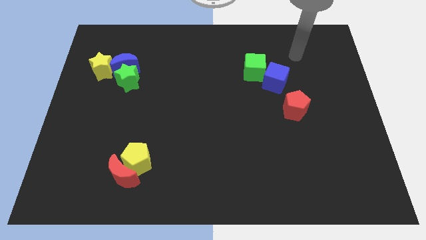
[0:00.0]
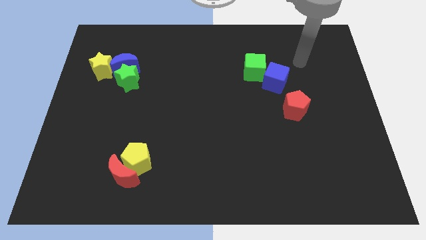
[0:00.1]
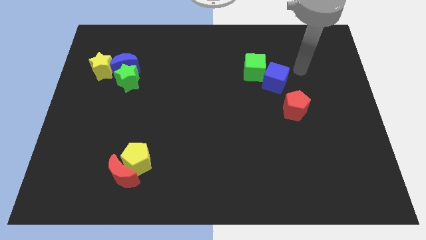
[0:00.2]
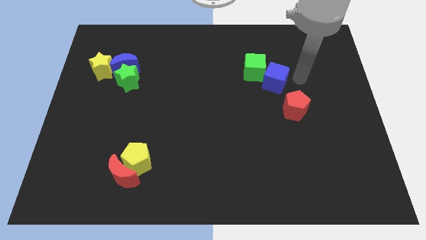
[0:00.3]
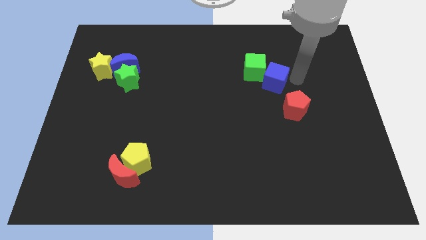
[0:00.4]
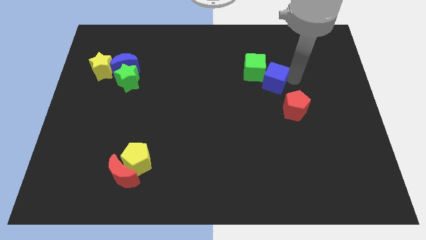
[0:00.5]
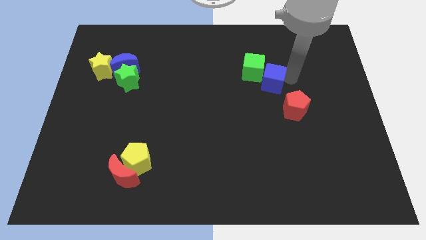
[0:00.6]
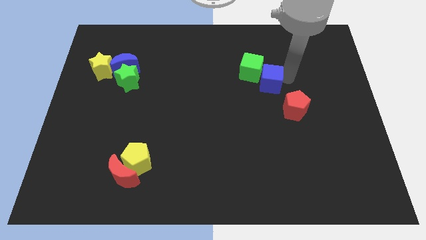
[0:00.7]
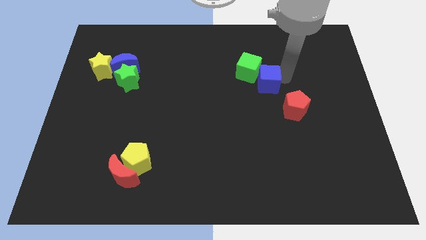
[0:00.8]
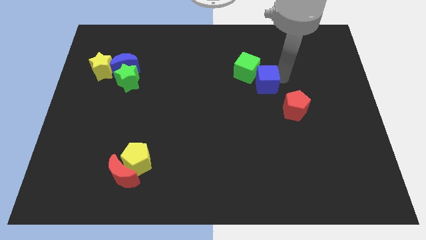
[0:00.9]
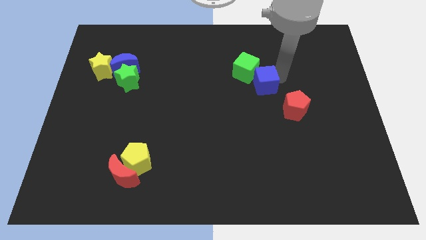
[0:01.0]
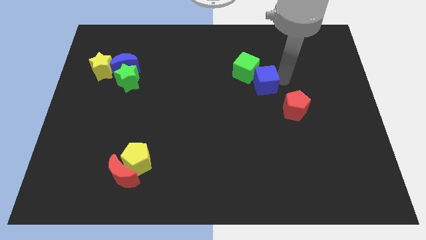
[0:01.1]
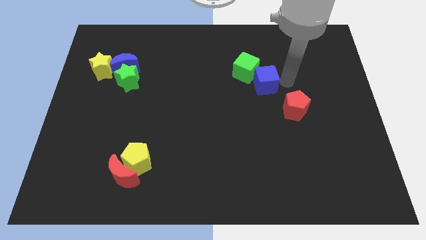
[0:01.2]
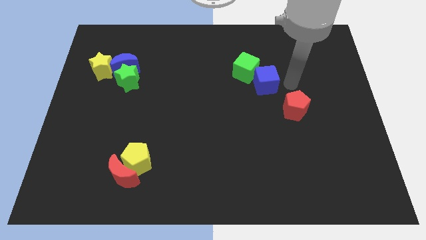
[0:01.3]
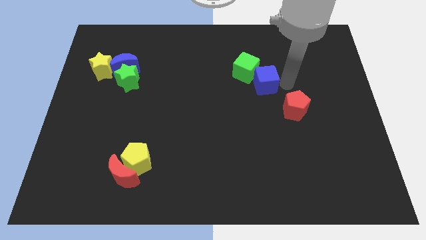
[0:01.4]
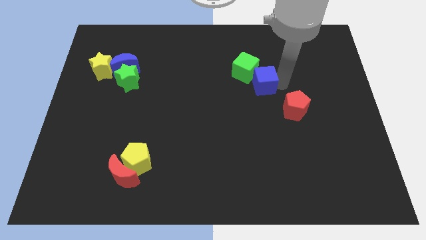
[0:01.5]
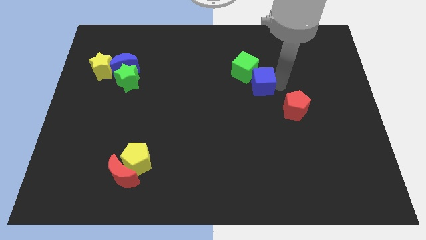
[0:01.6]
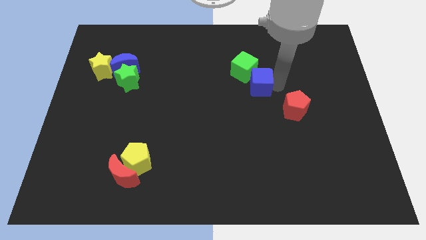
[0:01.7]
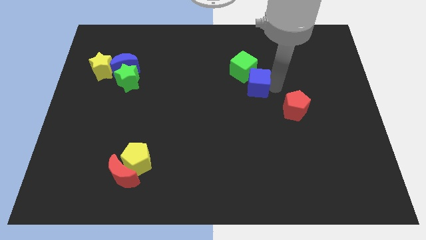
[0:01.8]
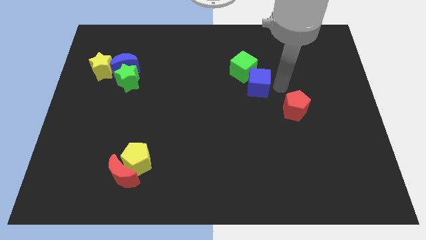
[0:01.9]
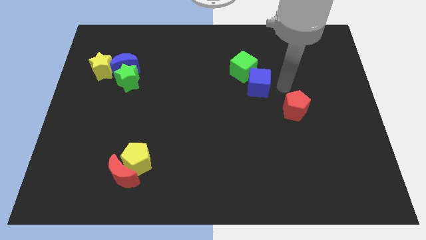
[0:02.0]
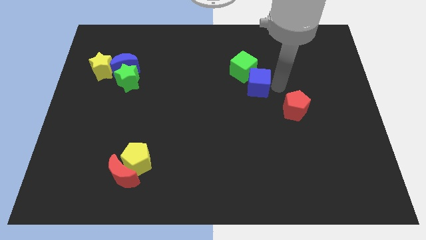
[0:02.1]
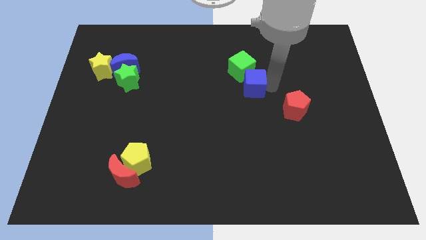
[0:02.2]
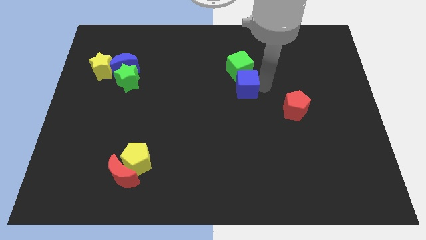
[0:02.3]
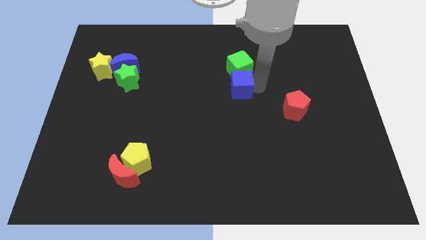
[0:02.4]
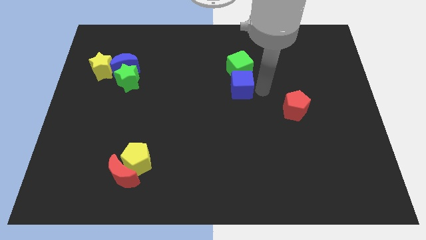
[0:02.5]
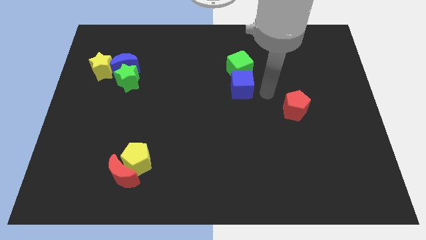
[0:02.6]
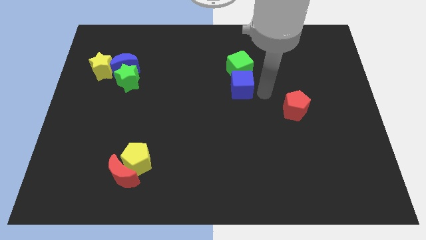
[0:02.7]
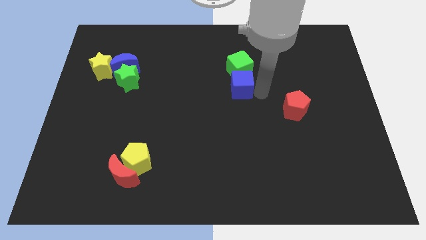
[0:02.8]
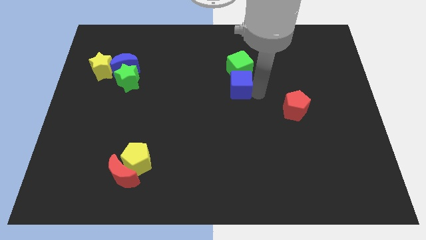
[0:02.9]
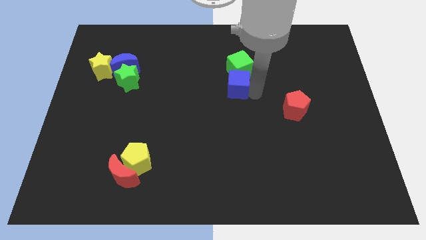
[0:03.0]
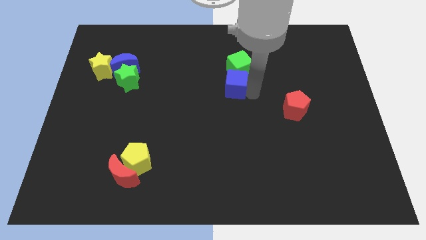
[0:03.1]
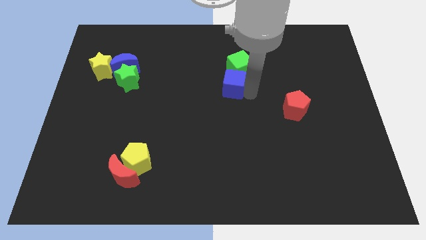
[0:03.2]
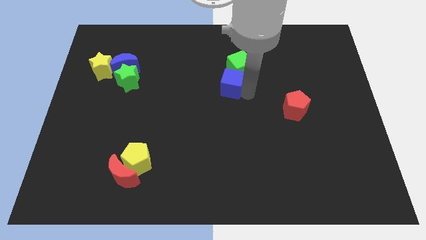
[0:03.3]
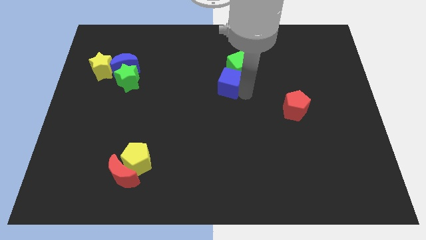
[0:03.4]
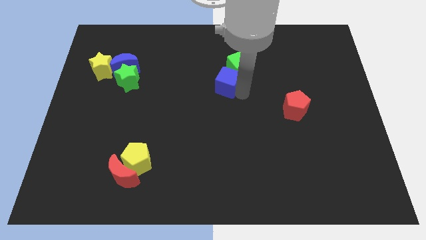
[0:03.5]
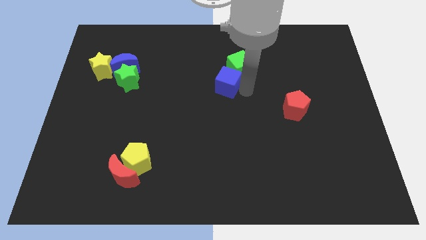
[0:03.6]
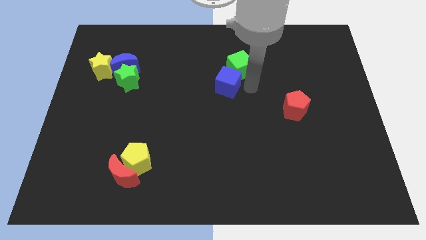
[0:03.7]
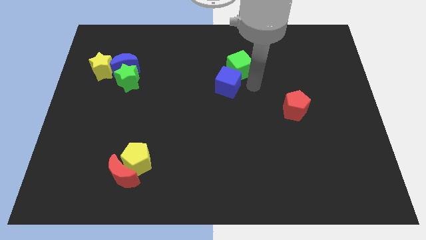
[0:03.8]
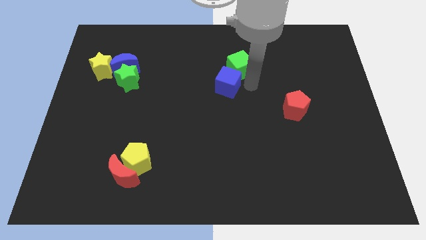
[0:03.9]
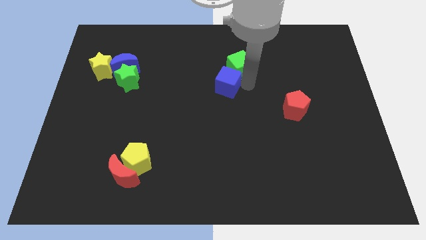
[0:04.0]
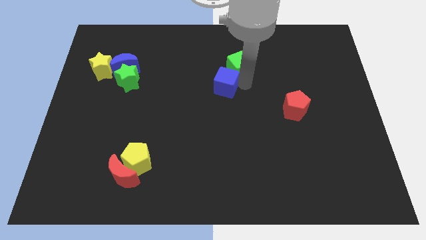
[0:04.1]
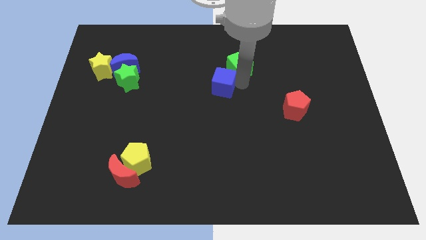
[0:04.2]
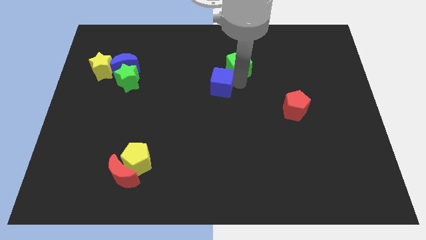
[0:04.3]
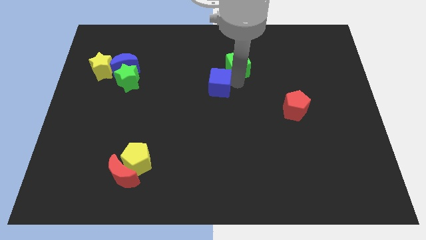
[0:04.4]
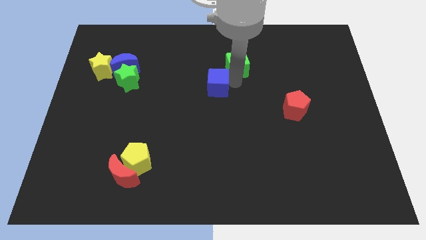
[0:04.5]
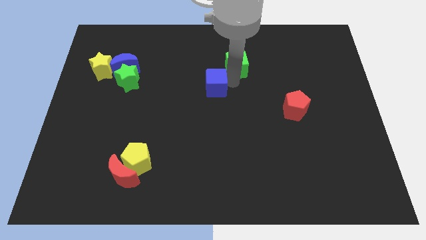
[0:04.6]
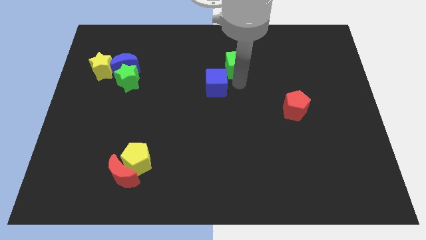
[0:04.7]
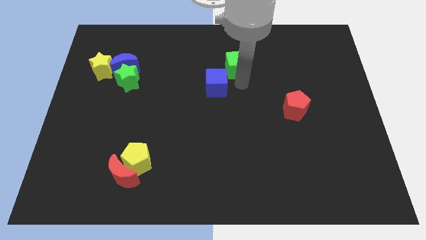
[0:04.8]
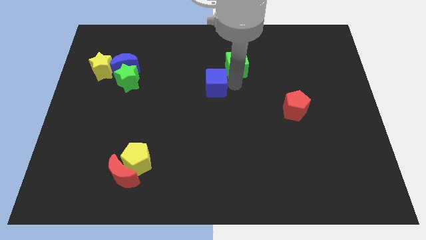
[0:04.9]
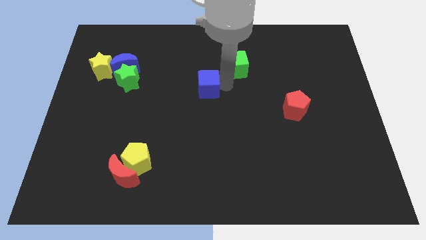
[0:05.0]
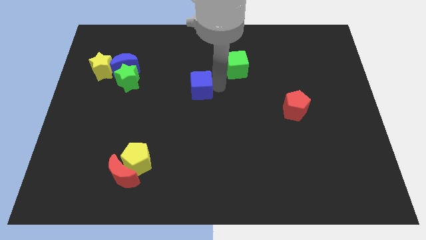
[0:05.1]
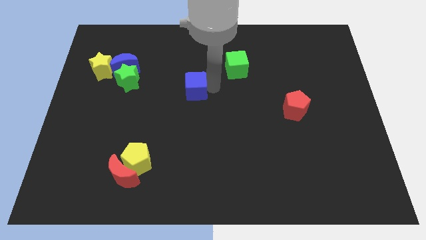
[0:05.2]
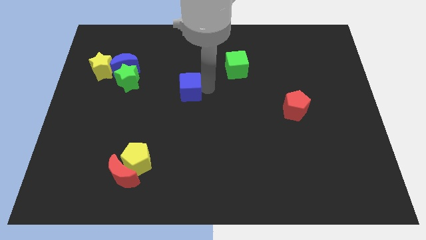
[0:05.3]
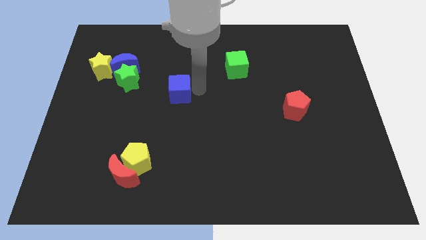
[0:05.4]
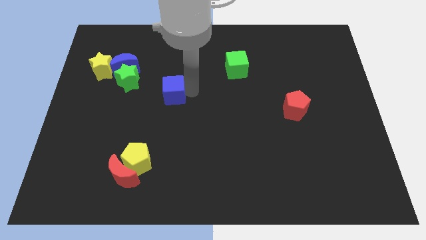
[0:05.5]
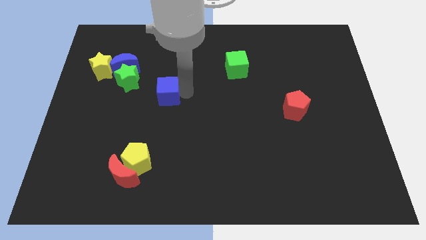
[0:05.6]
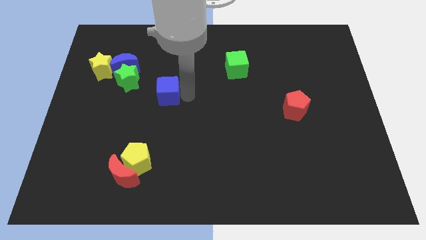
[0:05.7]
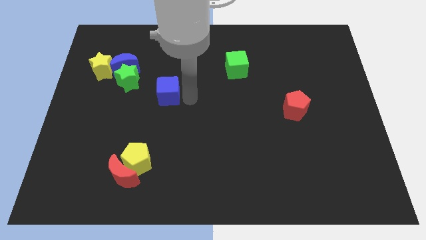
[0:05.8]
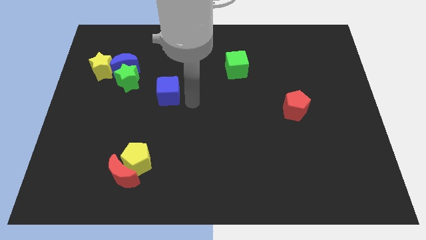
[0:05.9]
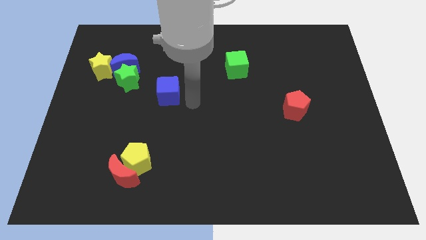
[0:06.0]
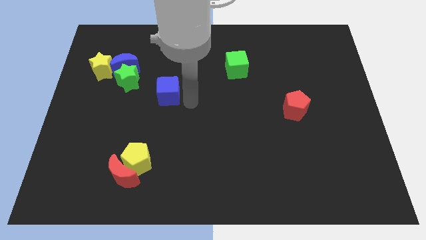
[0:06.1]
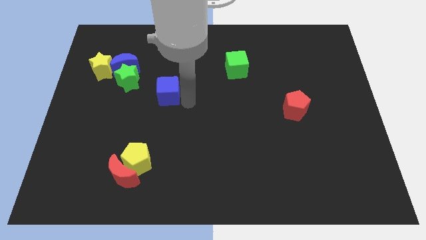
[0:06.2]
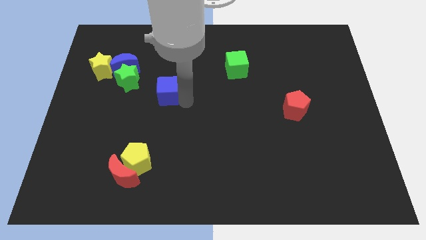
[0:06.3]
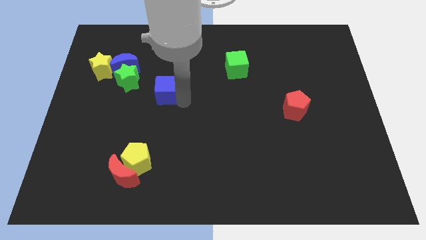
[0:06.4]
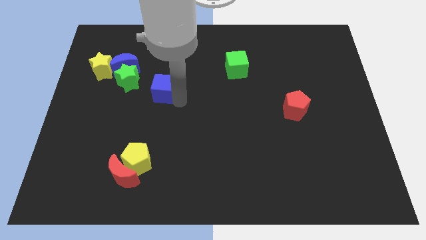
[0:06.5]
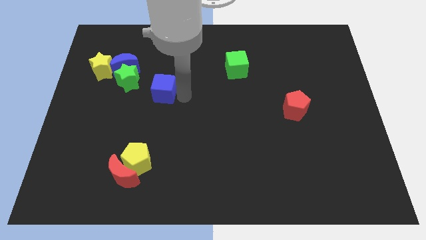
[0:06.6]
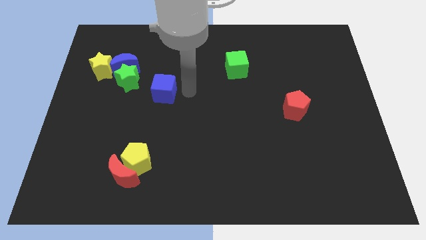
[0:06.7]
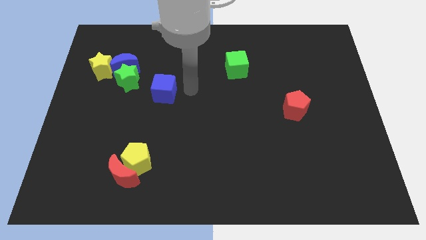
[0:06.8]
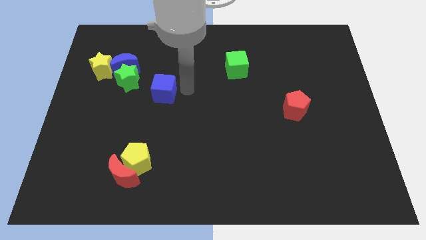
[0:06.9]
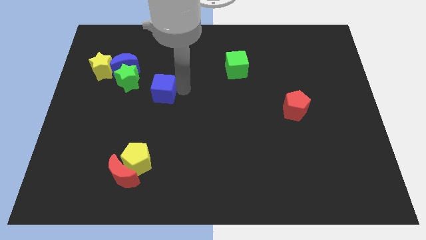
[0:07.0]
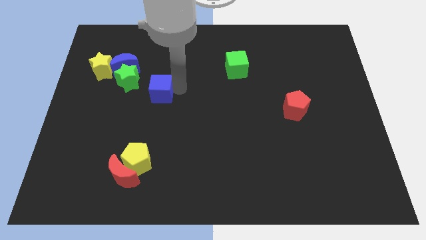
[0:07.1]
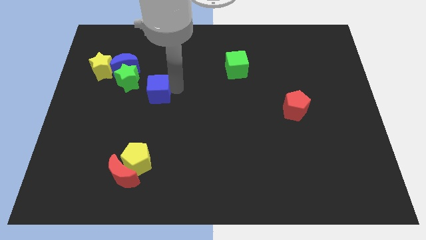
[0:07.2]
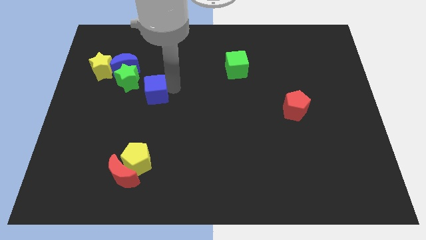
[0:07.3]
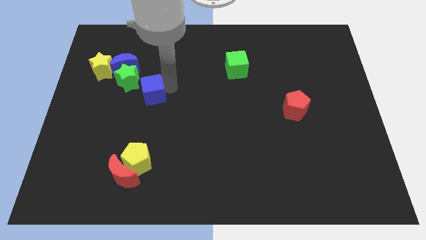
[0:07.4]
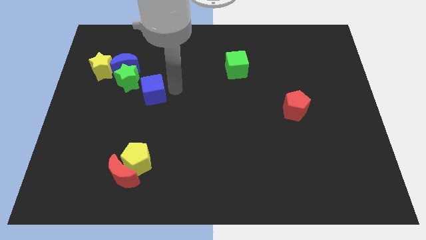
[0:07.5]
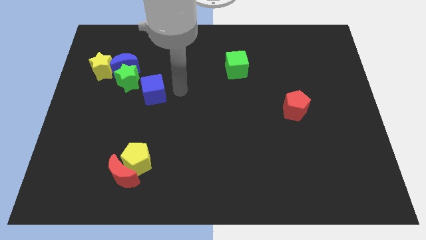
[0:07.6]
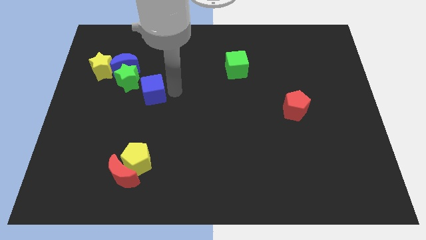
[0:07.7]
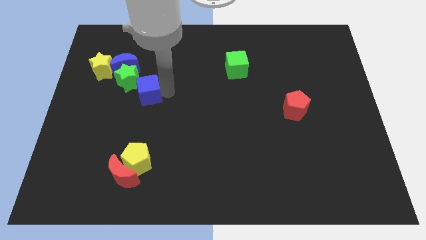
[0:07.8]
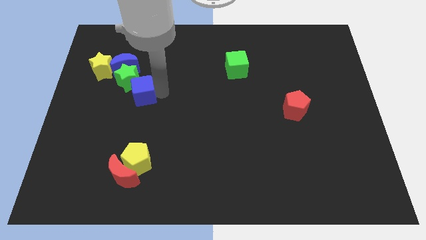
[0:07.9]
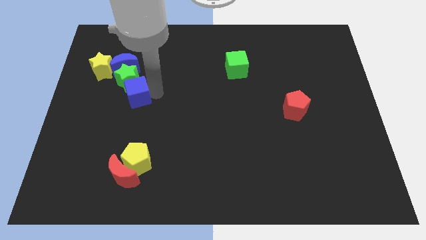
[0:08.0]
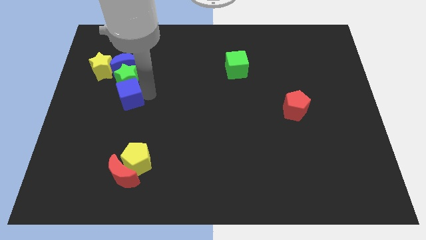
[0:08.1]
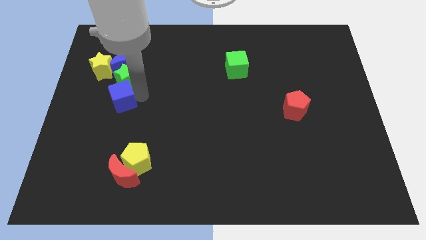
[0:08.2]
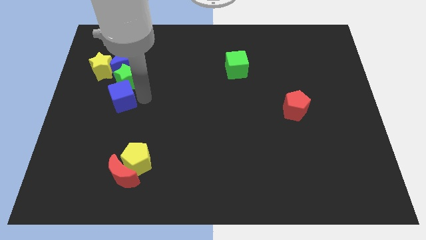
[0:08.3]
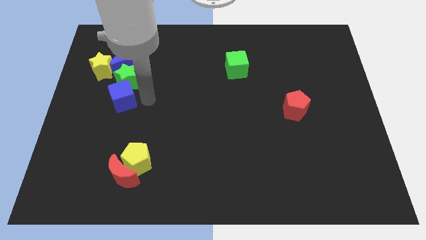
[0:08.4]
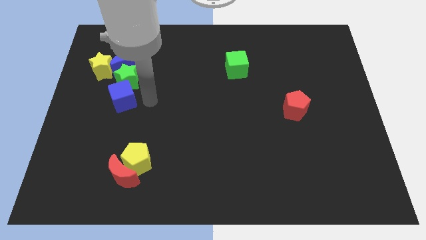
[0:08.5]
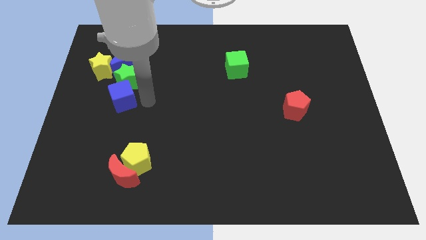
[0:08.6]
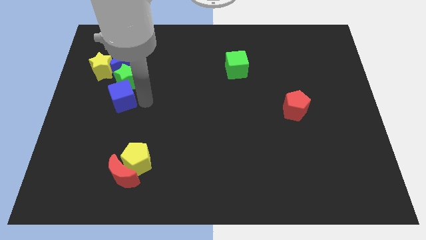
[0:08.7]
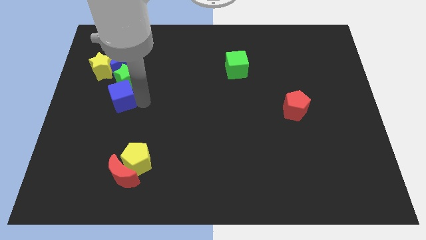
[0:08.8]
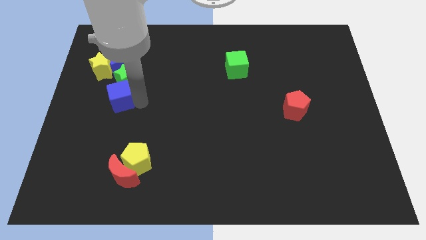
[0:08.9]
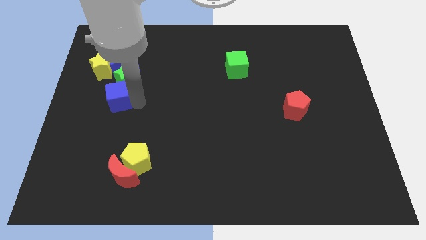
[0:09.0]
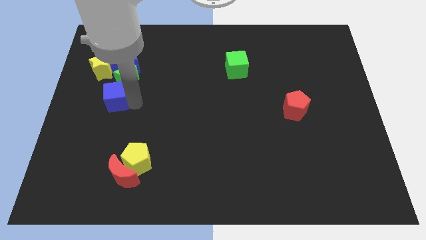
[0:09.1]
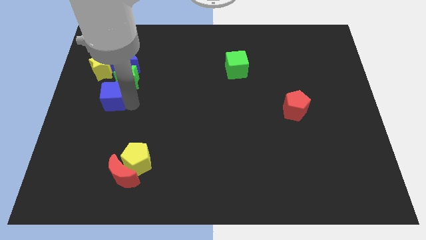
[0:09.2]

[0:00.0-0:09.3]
slide the blue cube to the bottom of the yellow star
